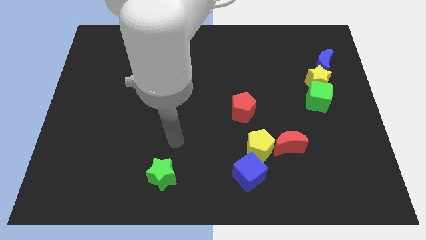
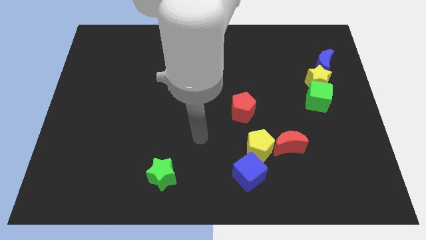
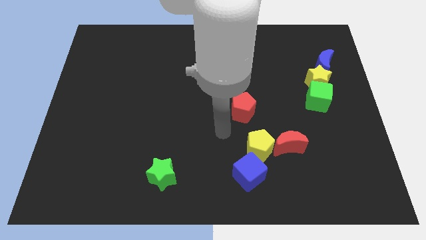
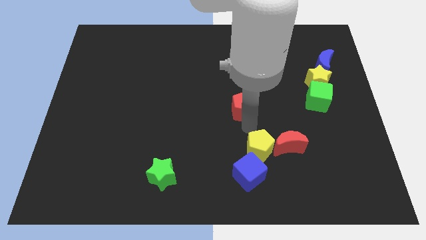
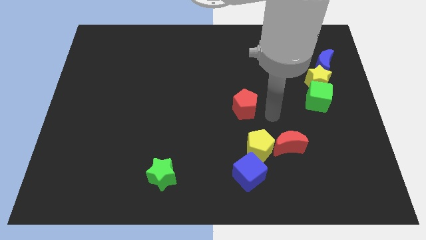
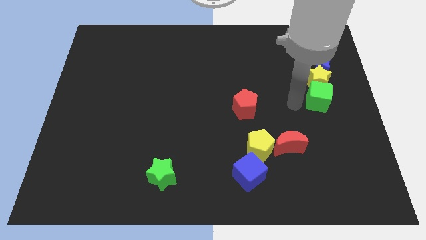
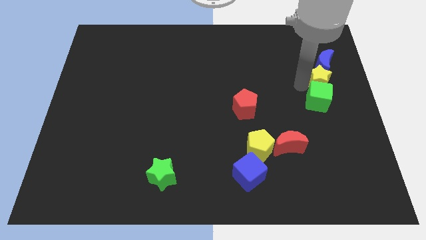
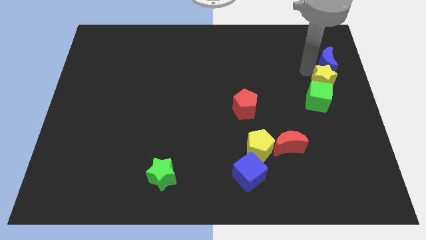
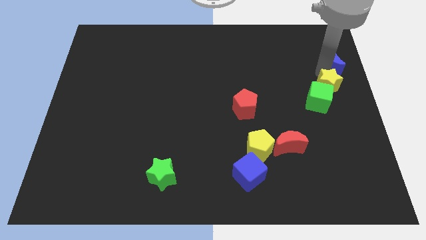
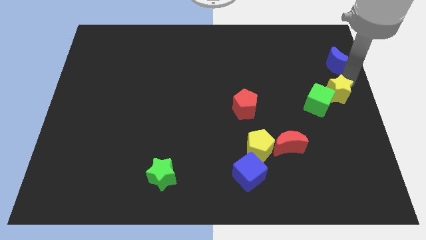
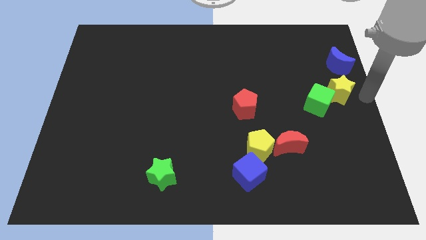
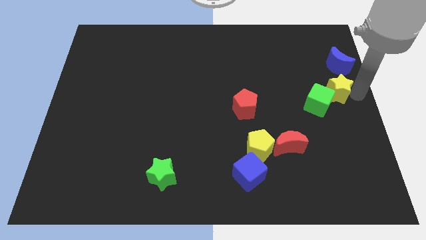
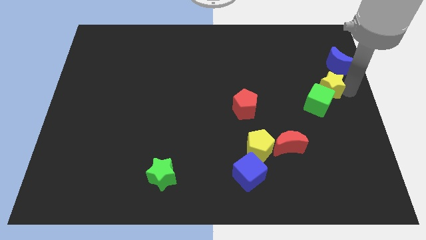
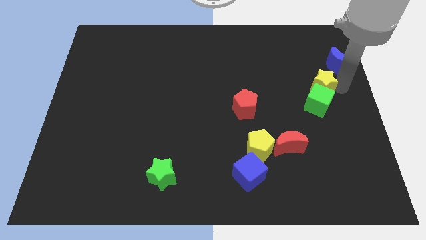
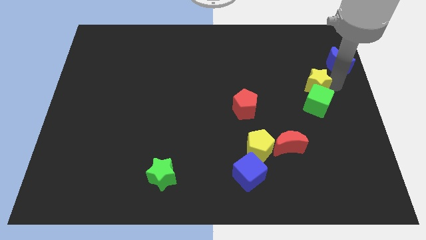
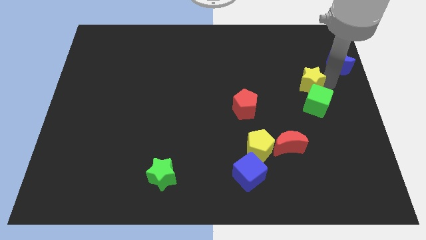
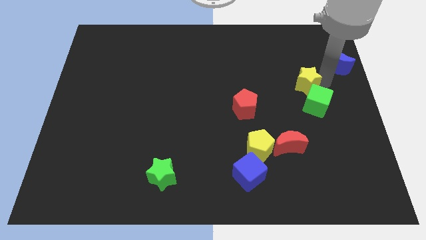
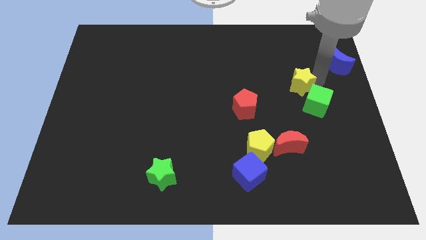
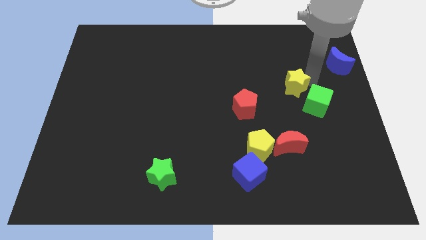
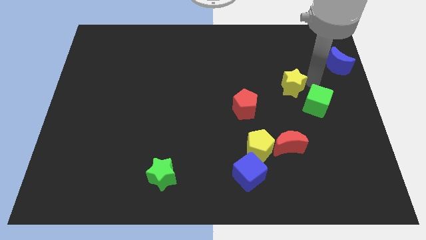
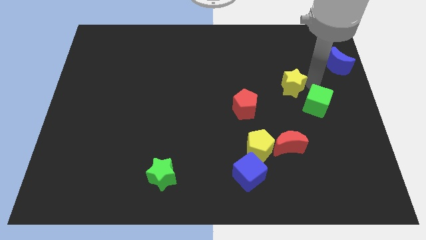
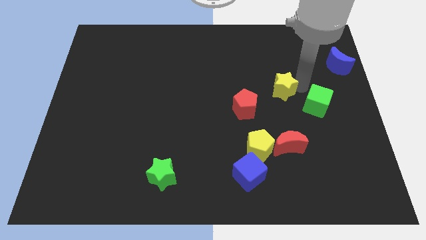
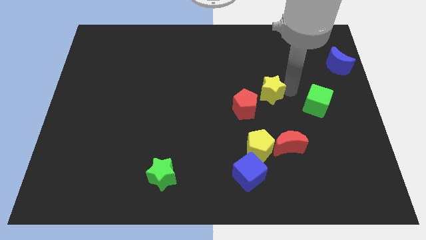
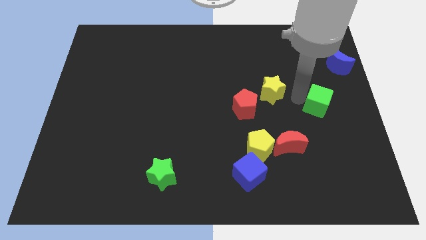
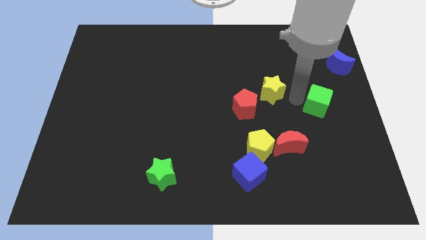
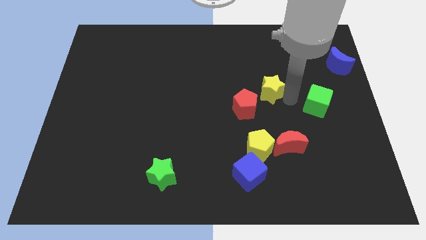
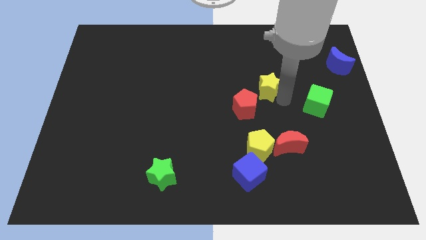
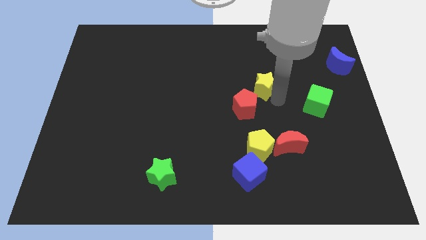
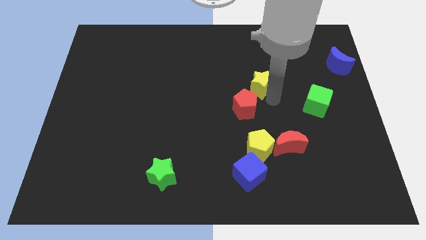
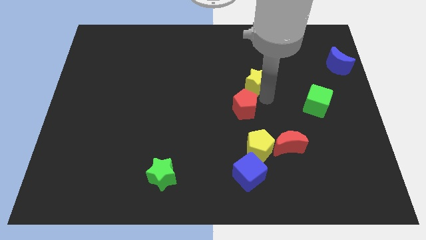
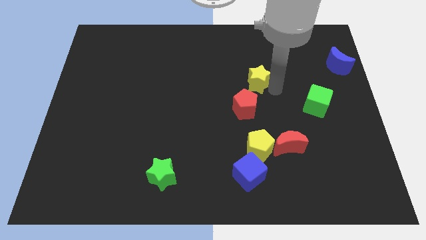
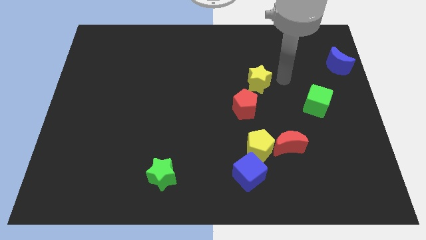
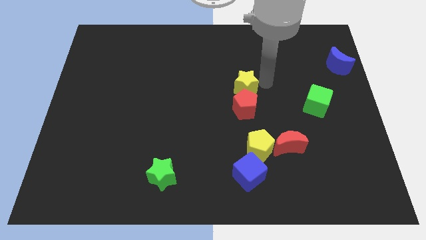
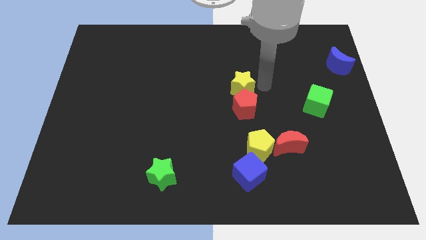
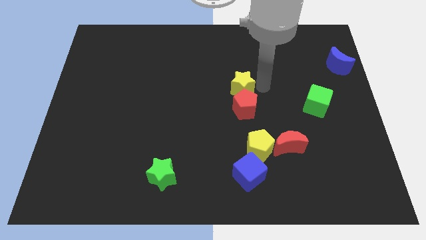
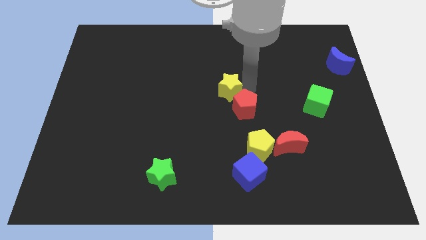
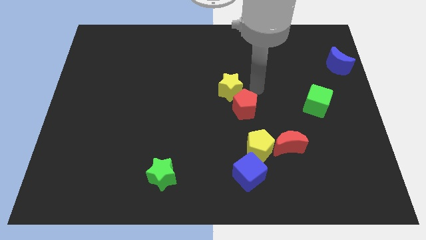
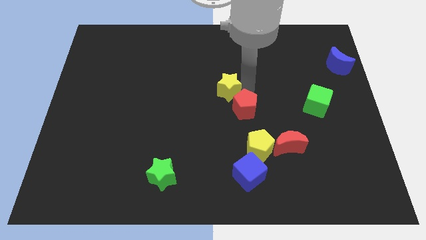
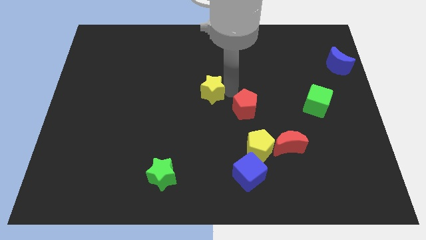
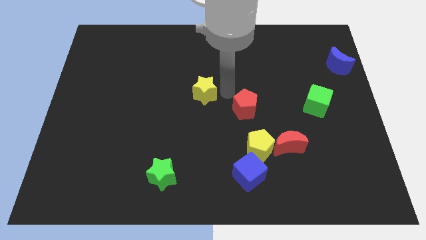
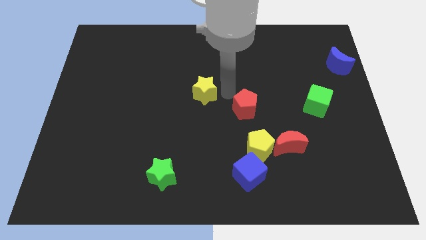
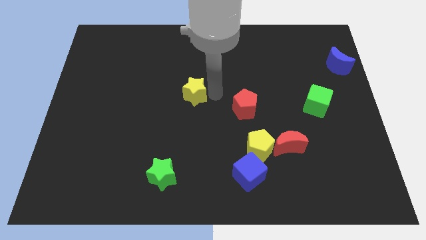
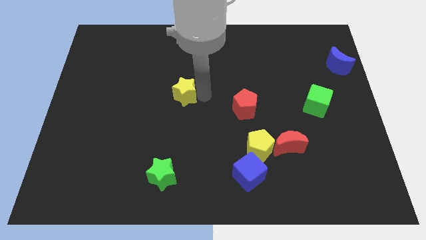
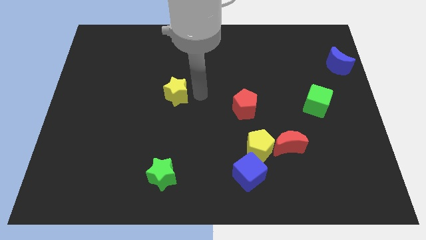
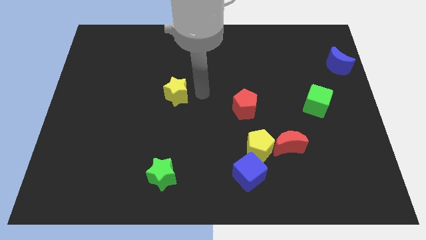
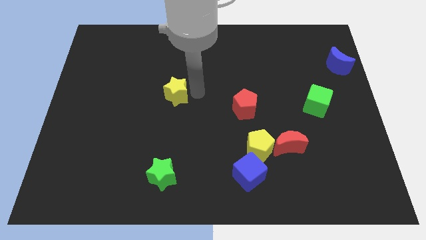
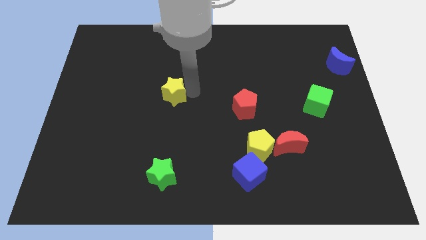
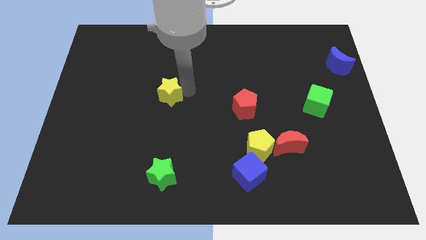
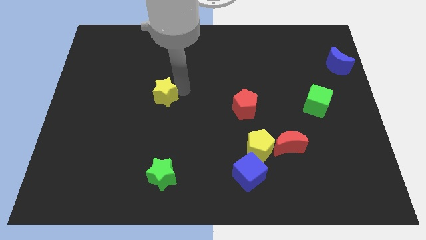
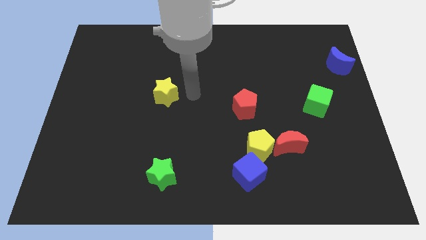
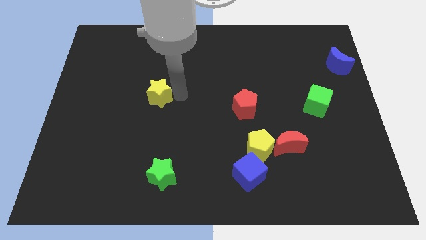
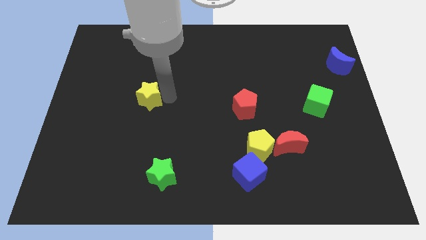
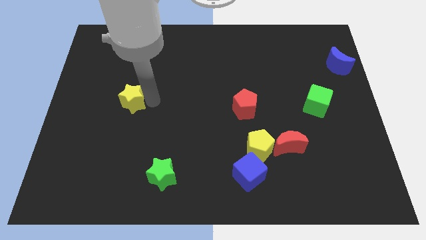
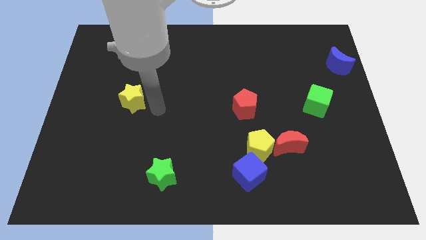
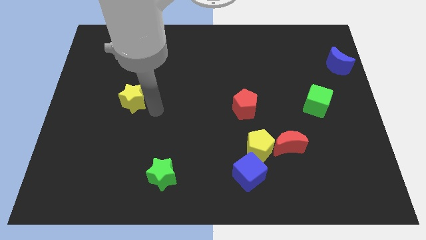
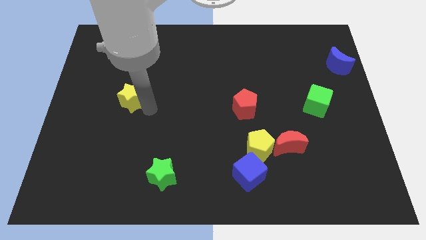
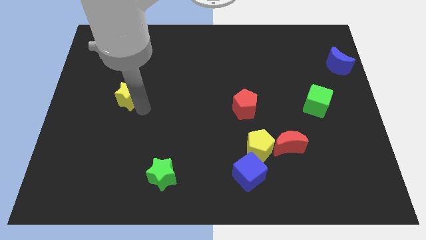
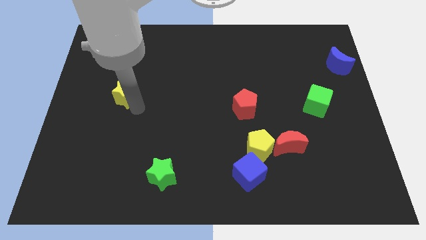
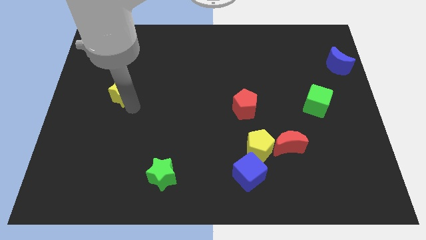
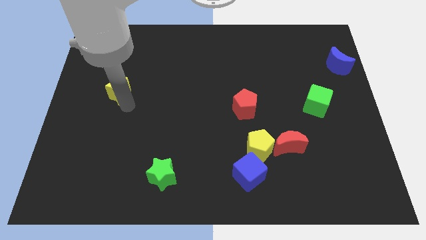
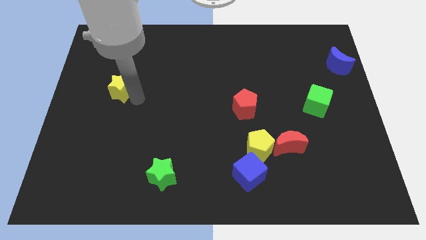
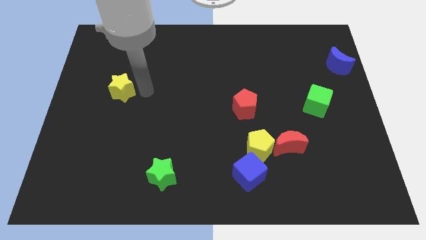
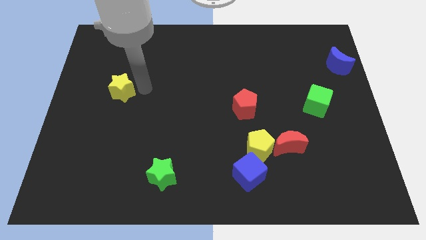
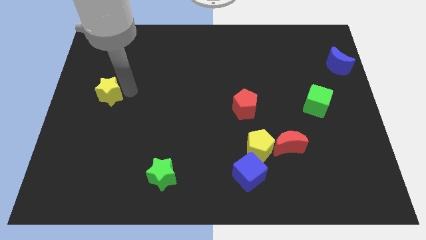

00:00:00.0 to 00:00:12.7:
slide the yellow star to the left side of the board
